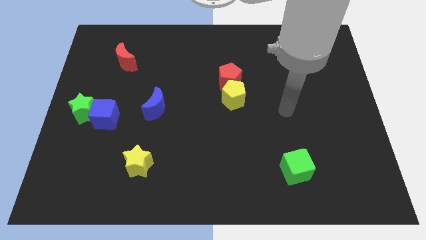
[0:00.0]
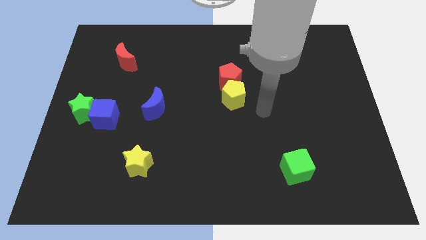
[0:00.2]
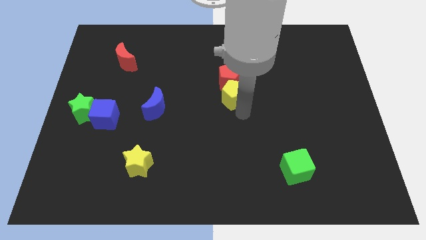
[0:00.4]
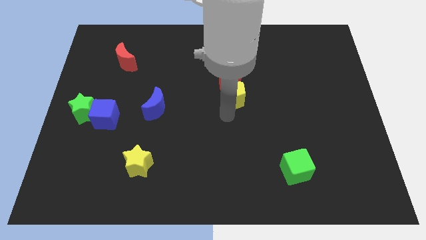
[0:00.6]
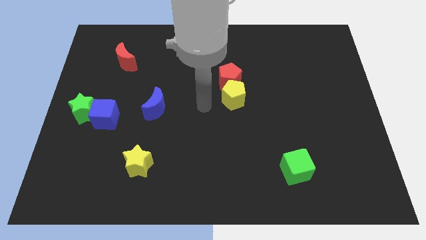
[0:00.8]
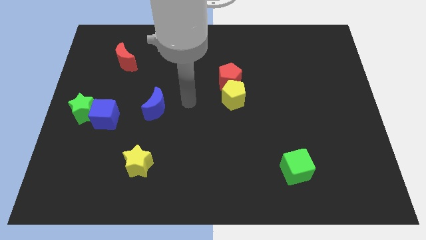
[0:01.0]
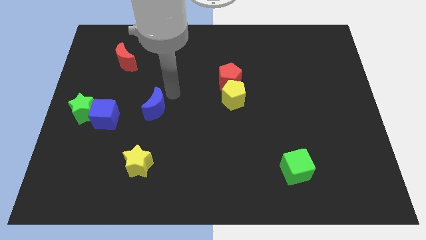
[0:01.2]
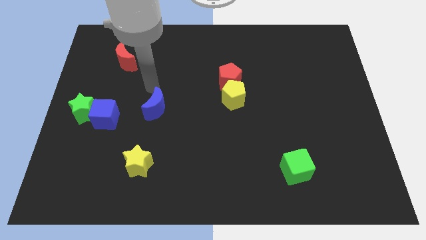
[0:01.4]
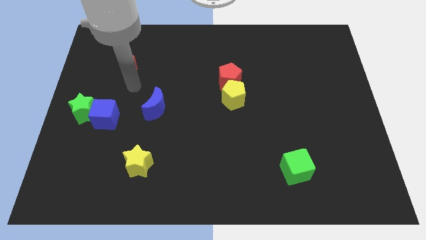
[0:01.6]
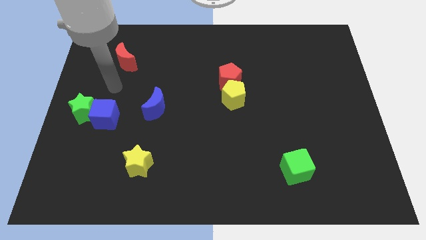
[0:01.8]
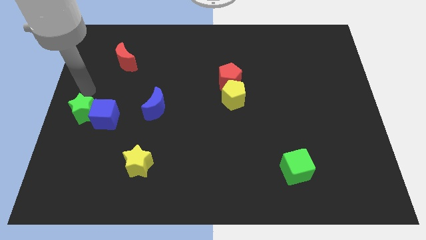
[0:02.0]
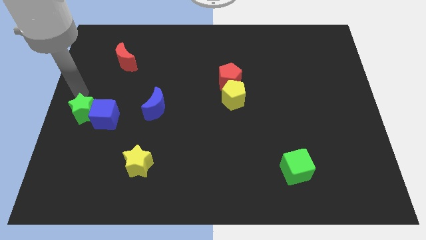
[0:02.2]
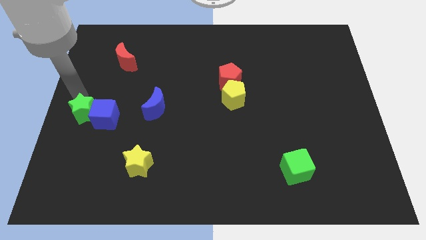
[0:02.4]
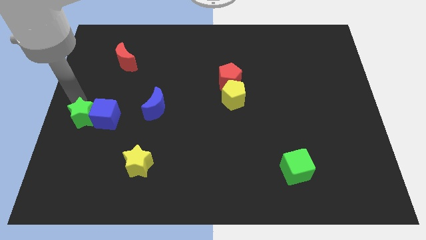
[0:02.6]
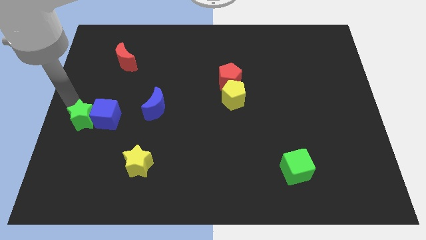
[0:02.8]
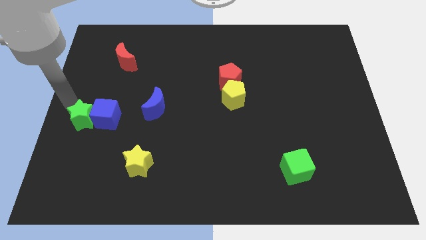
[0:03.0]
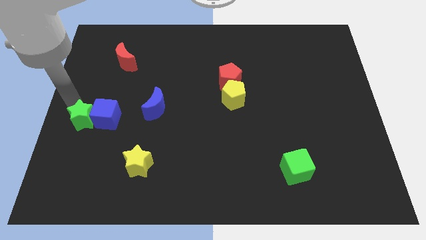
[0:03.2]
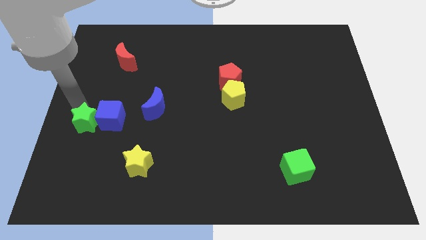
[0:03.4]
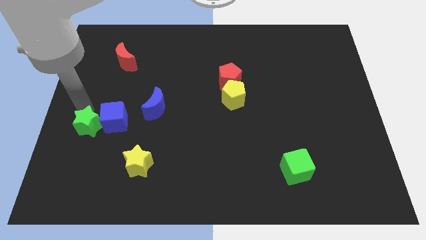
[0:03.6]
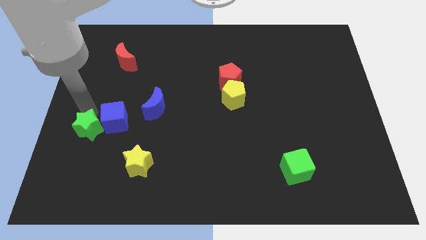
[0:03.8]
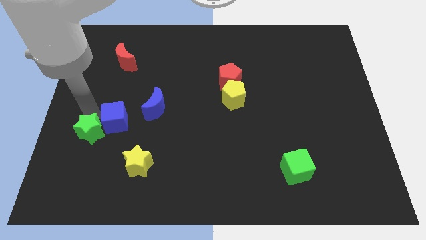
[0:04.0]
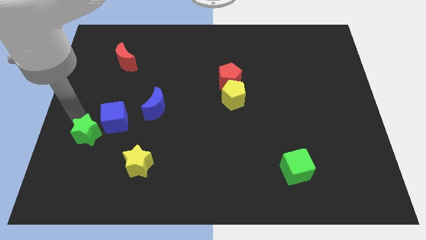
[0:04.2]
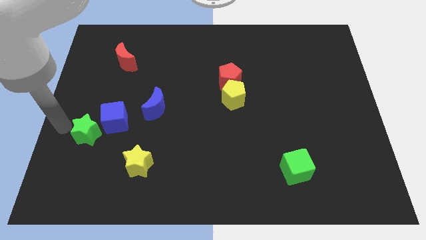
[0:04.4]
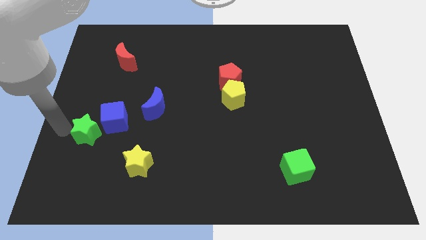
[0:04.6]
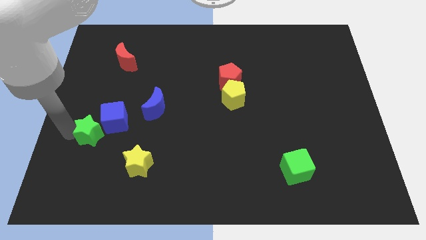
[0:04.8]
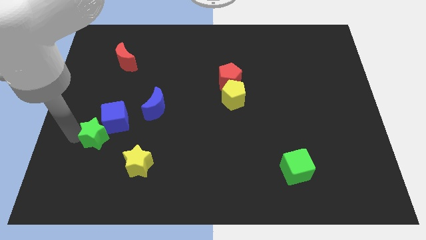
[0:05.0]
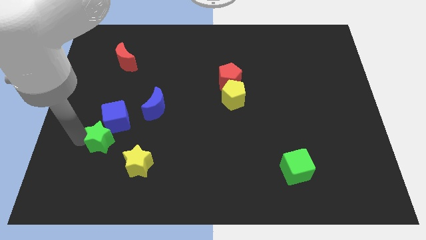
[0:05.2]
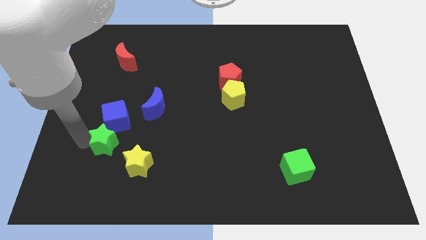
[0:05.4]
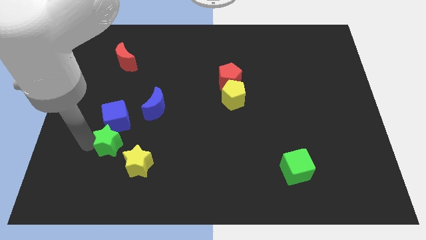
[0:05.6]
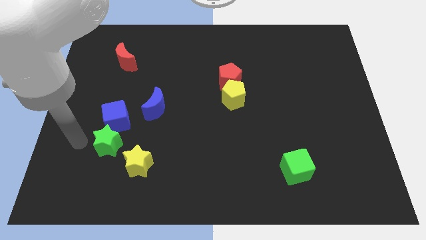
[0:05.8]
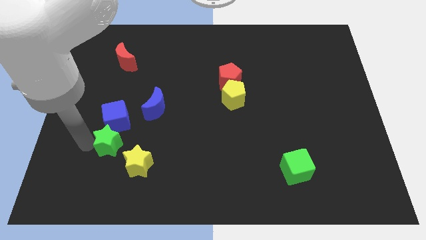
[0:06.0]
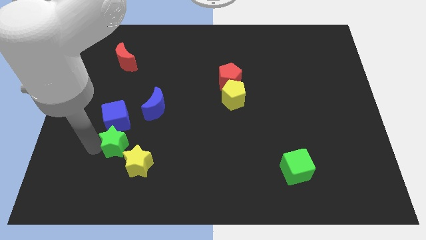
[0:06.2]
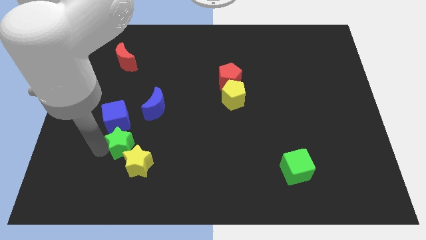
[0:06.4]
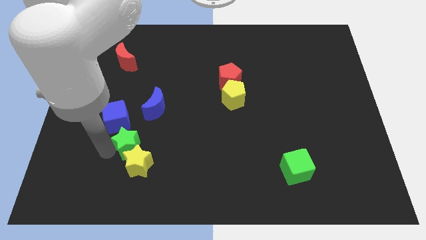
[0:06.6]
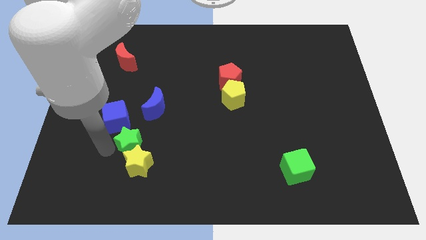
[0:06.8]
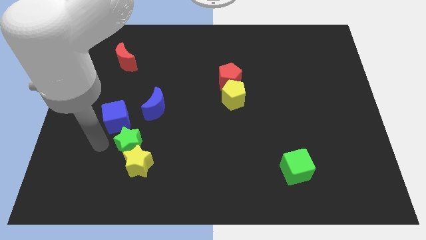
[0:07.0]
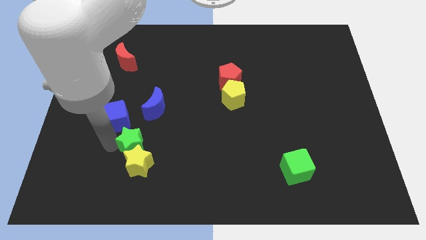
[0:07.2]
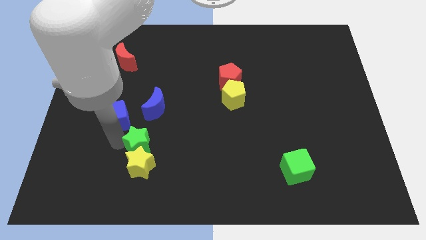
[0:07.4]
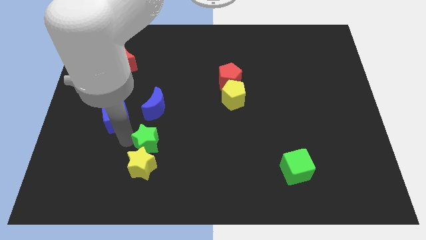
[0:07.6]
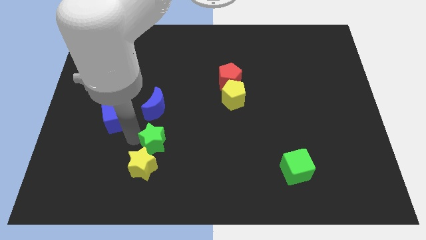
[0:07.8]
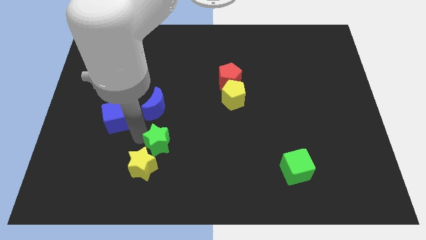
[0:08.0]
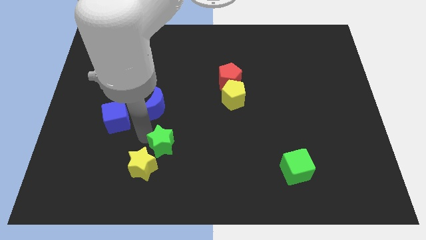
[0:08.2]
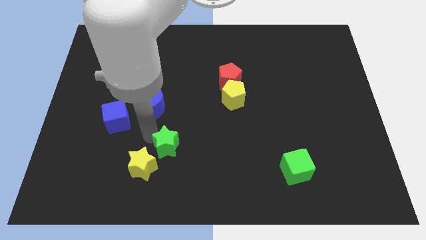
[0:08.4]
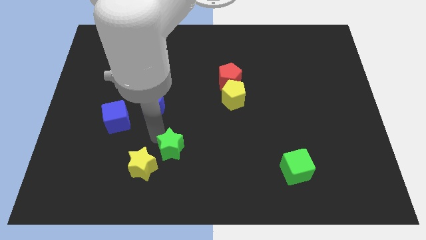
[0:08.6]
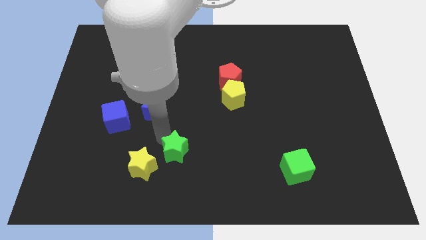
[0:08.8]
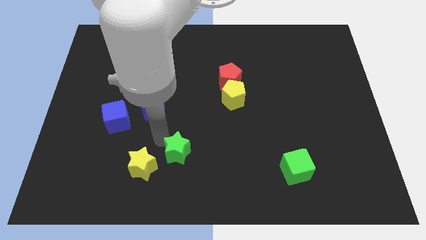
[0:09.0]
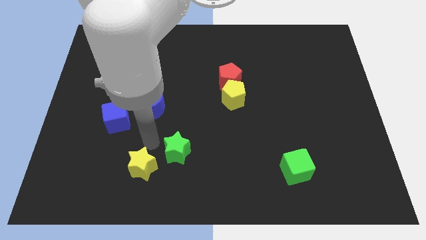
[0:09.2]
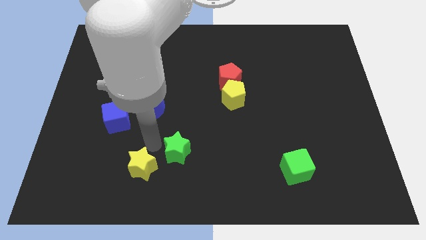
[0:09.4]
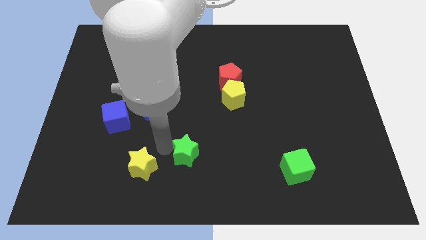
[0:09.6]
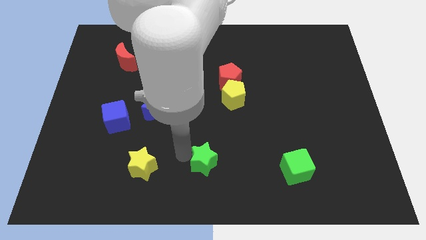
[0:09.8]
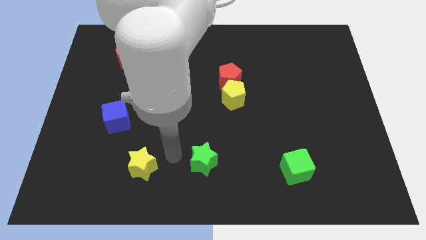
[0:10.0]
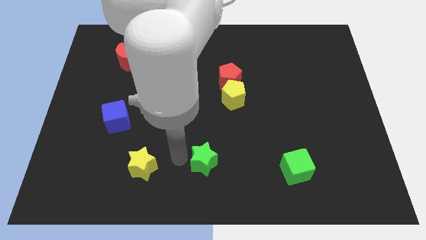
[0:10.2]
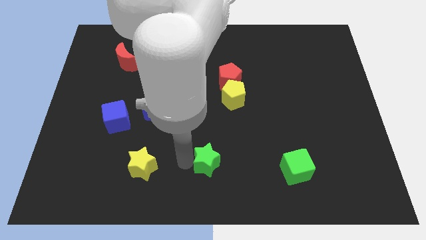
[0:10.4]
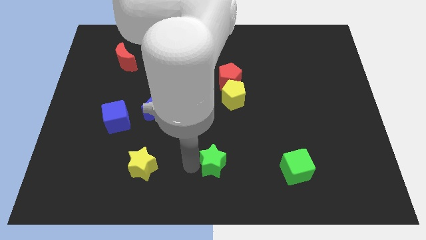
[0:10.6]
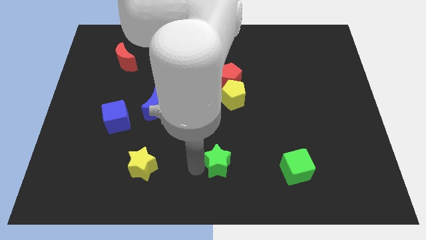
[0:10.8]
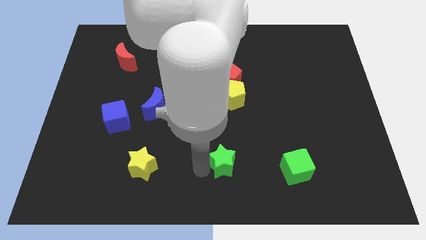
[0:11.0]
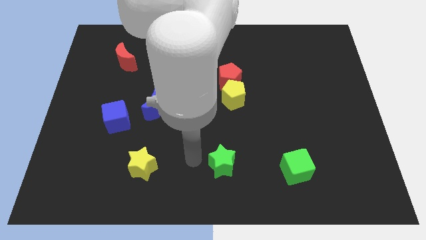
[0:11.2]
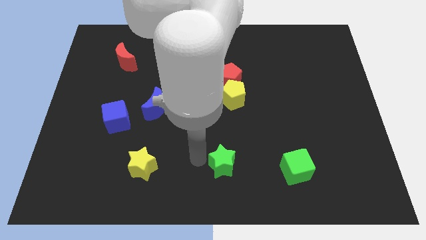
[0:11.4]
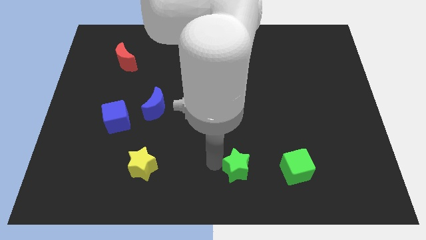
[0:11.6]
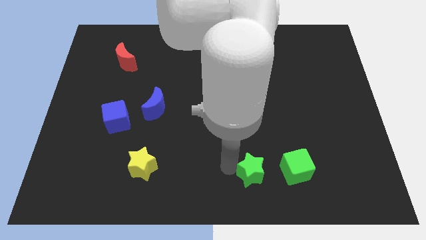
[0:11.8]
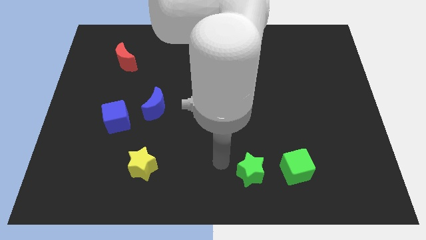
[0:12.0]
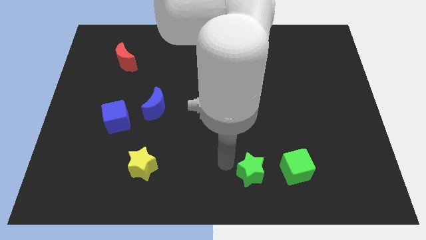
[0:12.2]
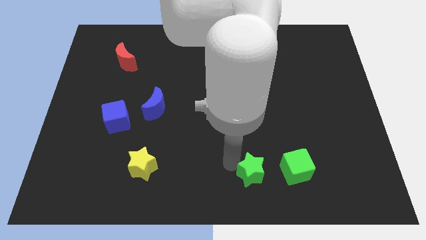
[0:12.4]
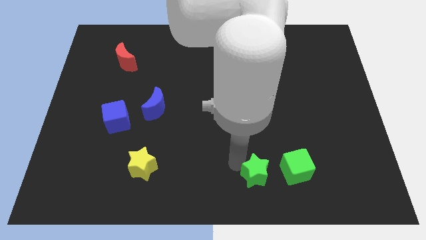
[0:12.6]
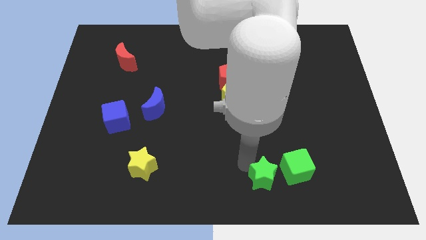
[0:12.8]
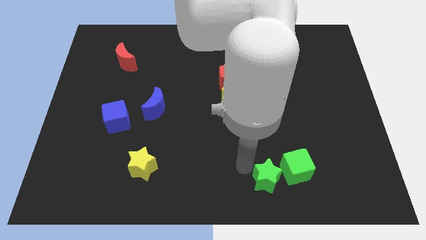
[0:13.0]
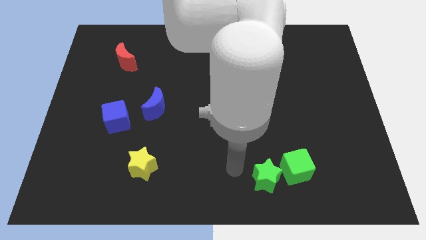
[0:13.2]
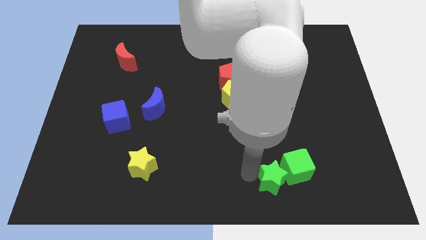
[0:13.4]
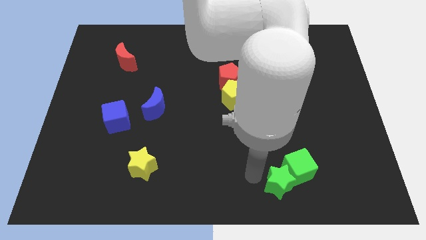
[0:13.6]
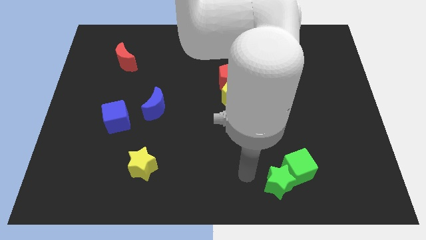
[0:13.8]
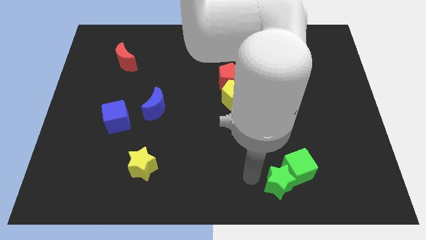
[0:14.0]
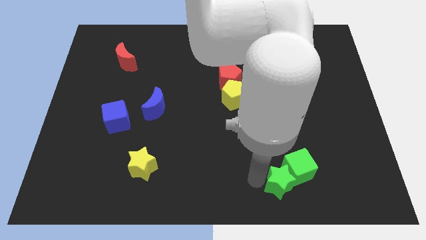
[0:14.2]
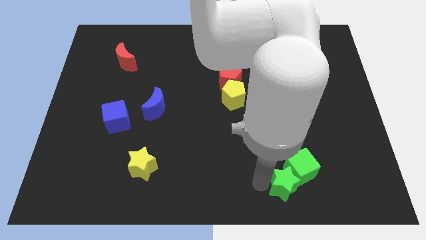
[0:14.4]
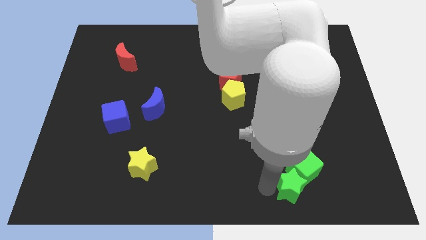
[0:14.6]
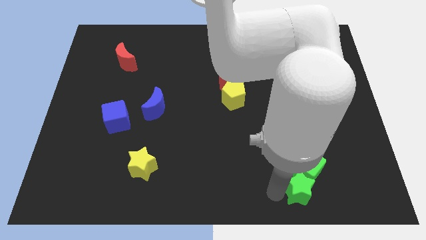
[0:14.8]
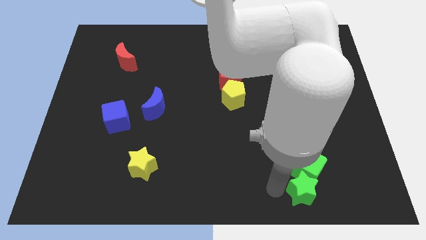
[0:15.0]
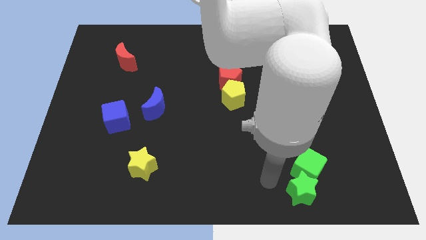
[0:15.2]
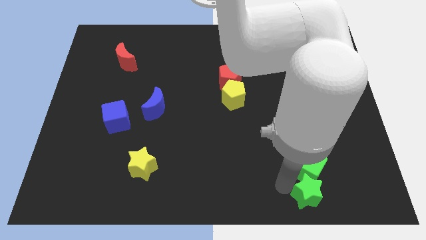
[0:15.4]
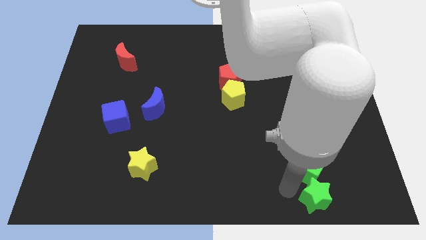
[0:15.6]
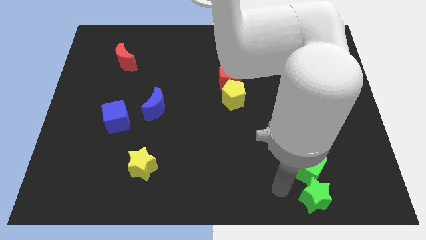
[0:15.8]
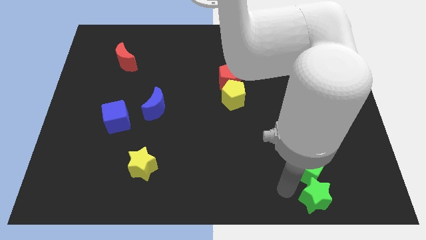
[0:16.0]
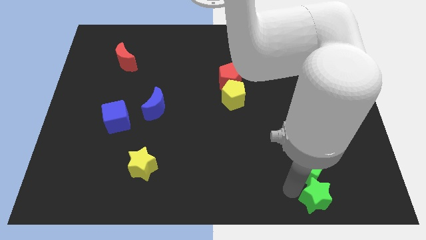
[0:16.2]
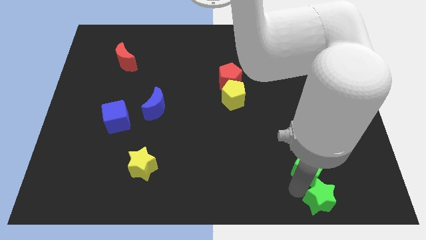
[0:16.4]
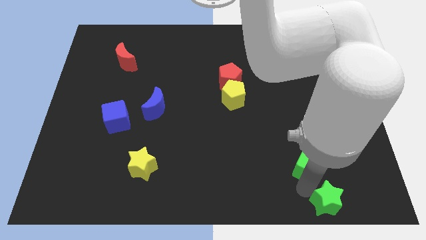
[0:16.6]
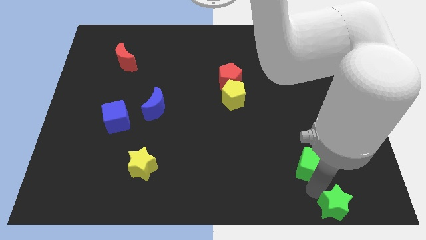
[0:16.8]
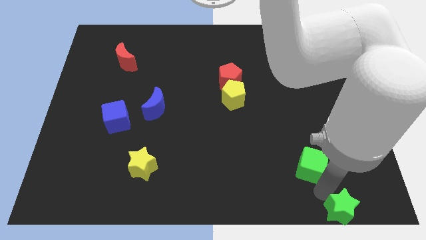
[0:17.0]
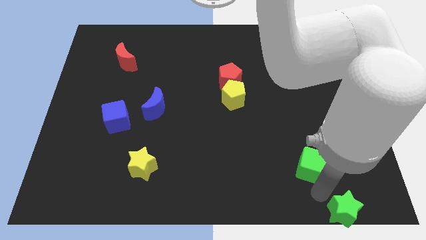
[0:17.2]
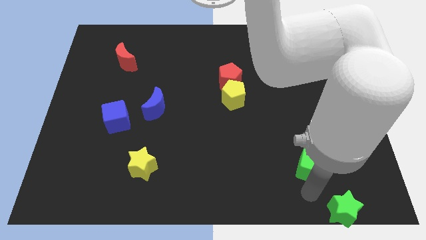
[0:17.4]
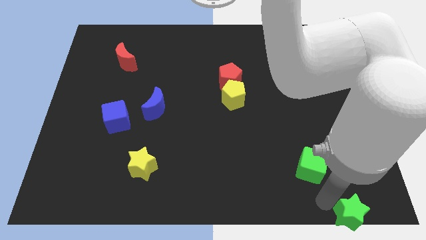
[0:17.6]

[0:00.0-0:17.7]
slide the green star to the bottom right corner
